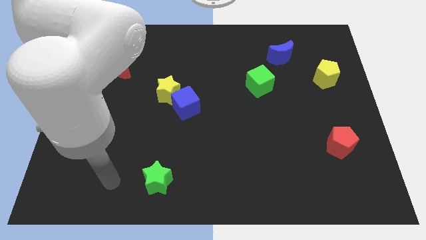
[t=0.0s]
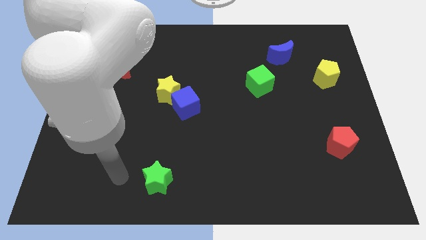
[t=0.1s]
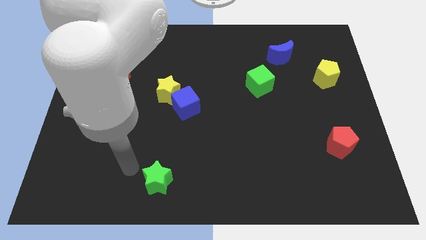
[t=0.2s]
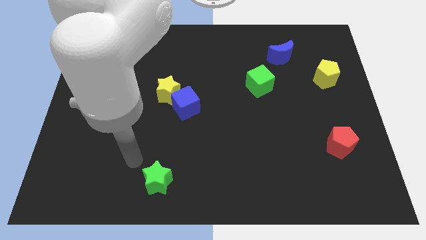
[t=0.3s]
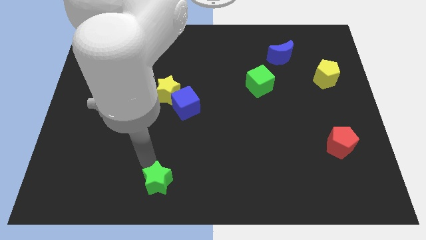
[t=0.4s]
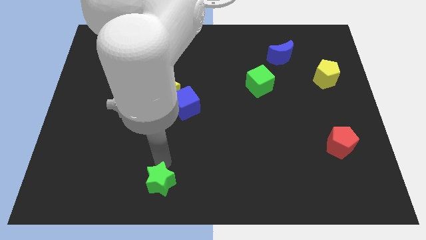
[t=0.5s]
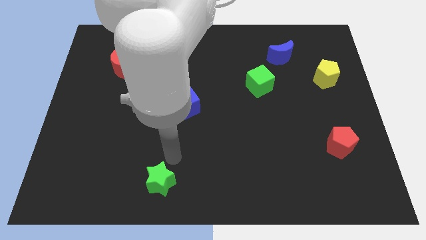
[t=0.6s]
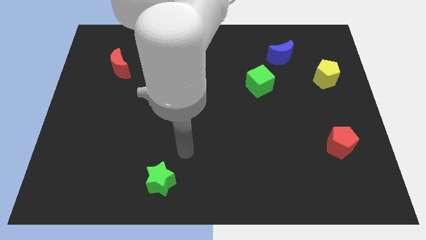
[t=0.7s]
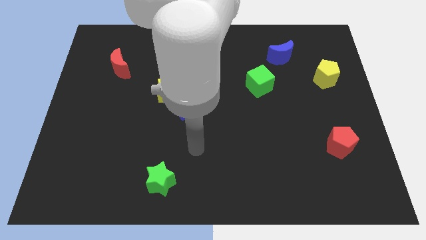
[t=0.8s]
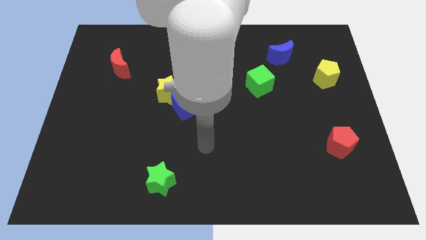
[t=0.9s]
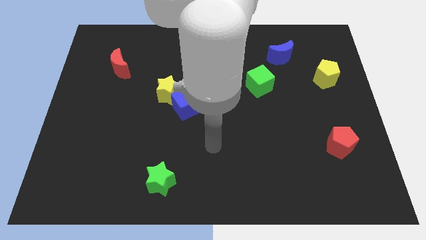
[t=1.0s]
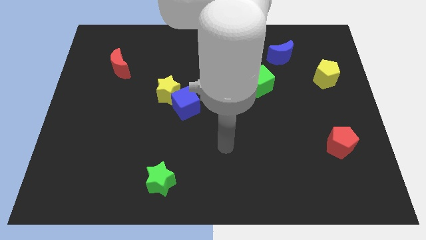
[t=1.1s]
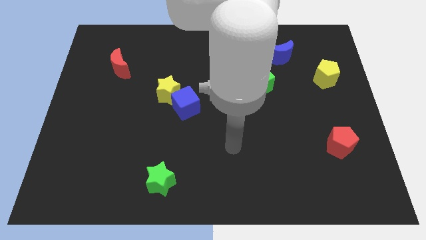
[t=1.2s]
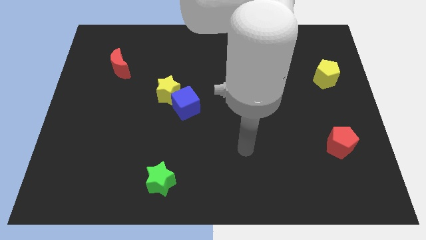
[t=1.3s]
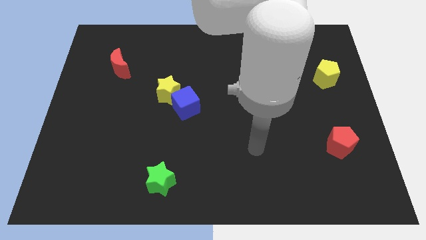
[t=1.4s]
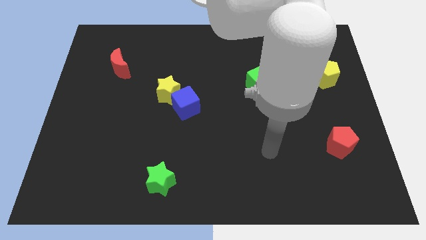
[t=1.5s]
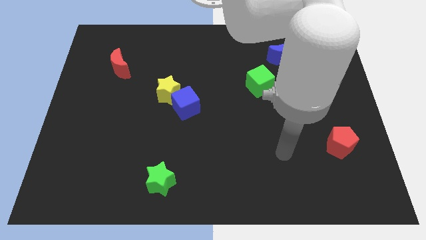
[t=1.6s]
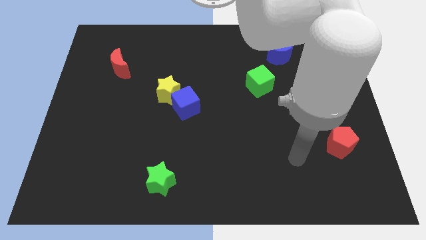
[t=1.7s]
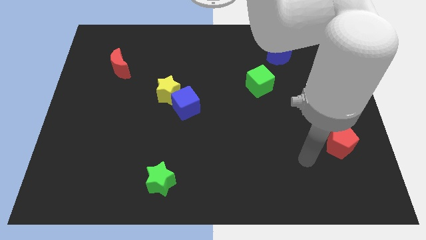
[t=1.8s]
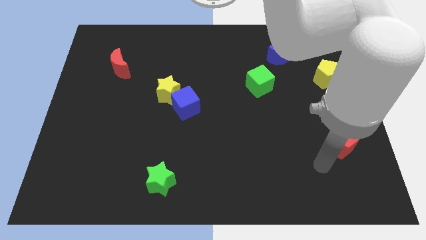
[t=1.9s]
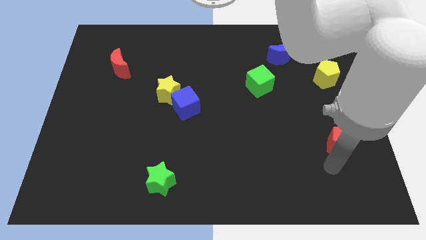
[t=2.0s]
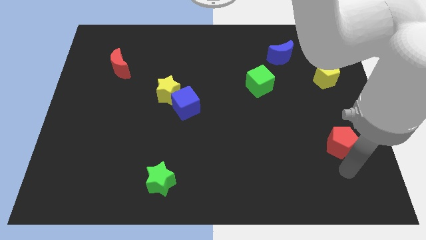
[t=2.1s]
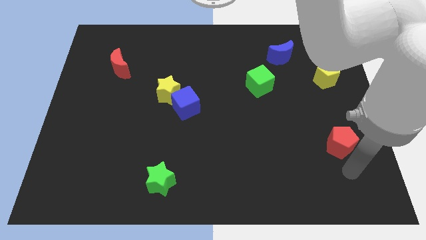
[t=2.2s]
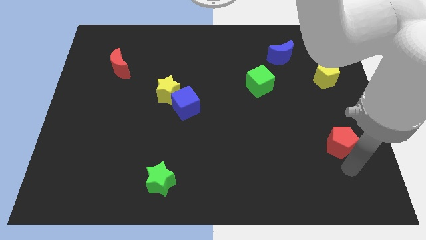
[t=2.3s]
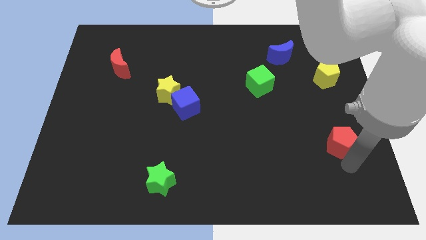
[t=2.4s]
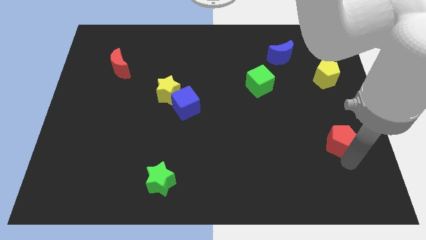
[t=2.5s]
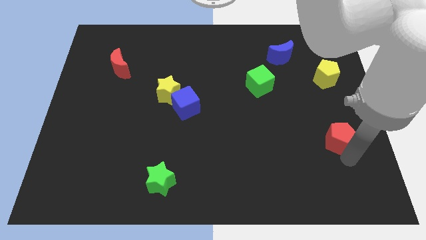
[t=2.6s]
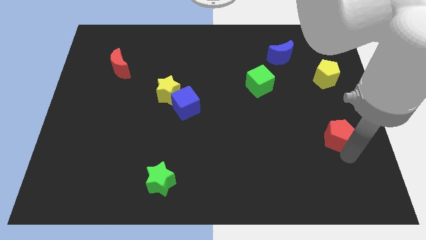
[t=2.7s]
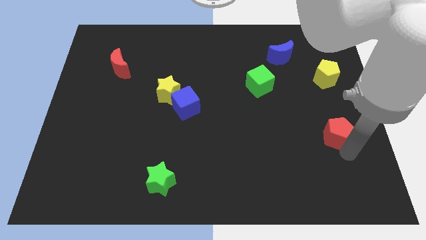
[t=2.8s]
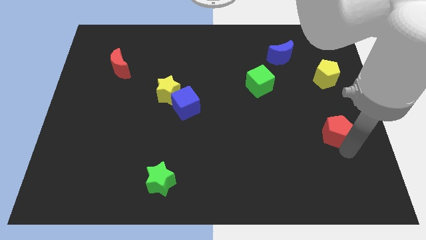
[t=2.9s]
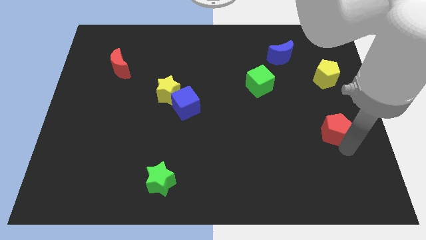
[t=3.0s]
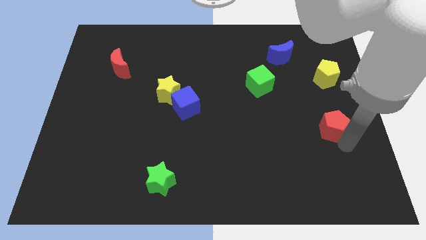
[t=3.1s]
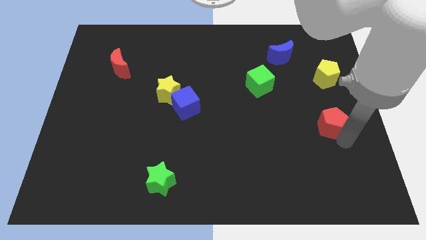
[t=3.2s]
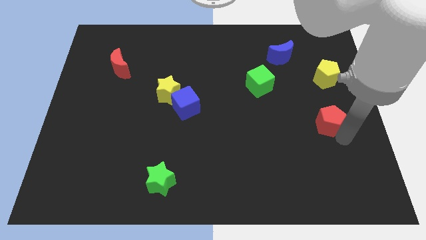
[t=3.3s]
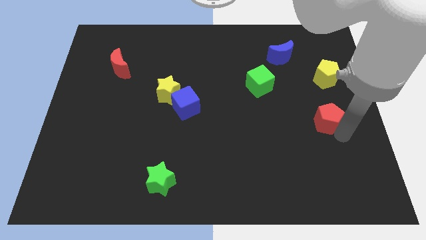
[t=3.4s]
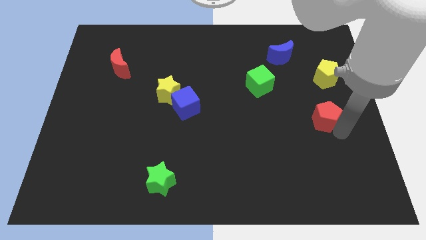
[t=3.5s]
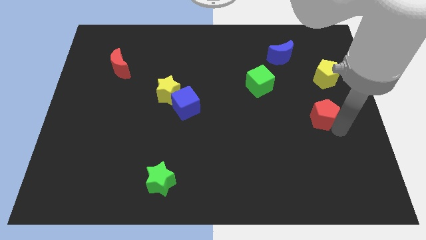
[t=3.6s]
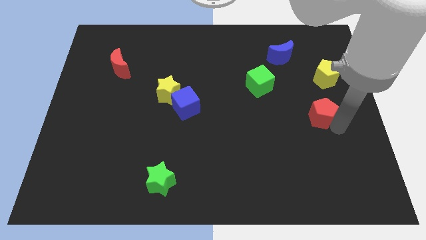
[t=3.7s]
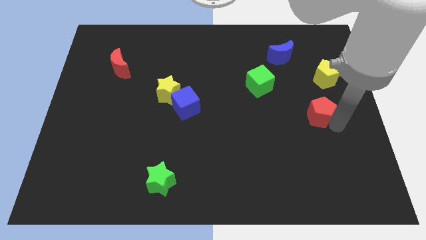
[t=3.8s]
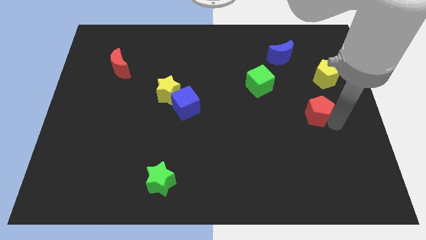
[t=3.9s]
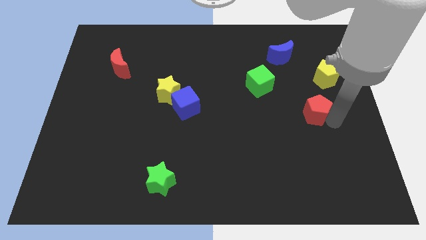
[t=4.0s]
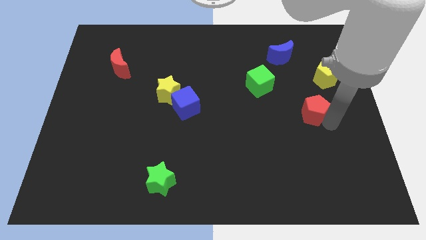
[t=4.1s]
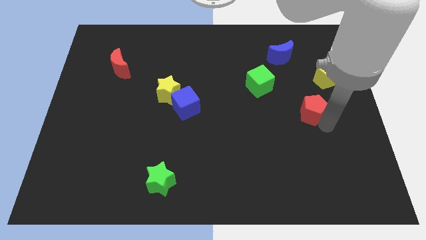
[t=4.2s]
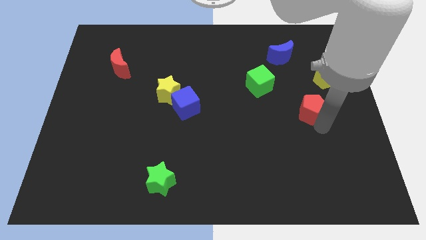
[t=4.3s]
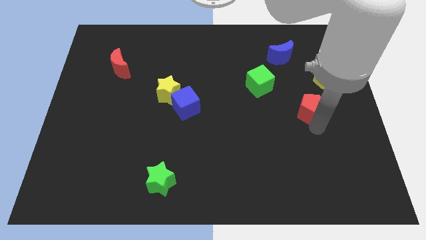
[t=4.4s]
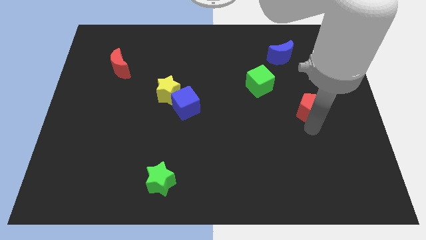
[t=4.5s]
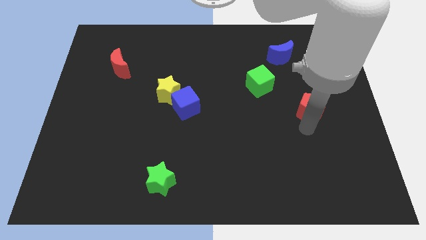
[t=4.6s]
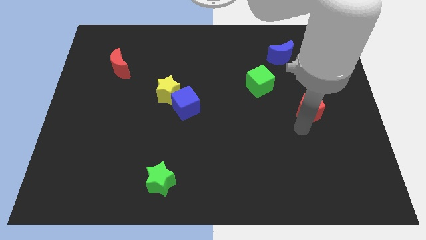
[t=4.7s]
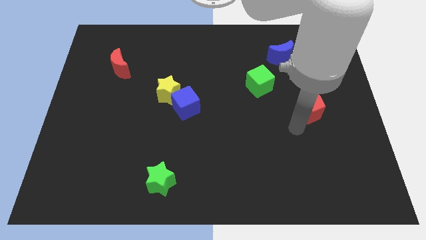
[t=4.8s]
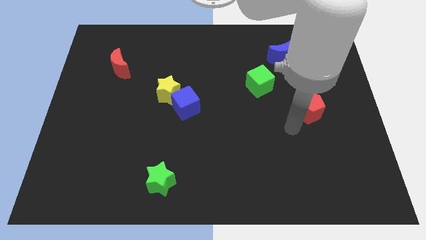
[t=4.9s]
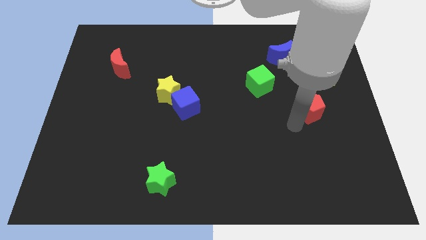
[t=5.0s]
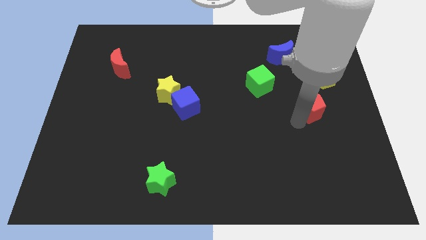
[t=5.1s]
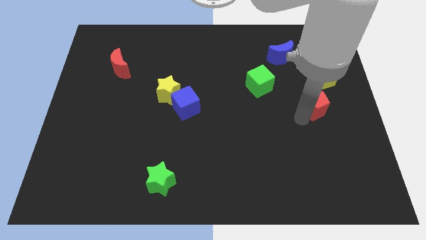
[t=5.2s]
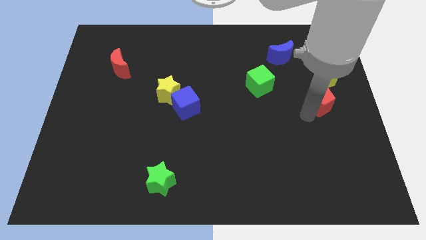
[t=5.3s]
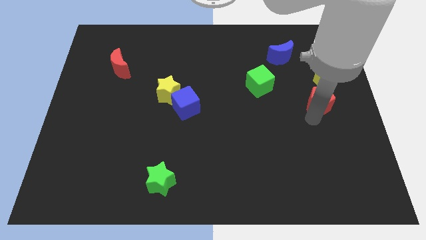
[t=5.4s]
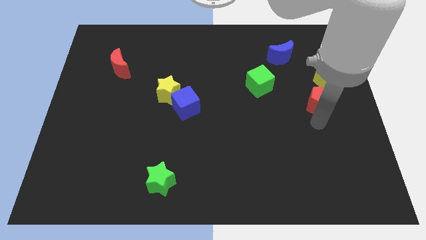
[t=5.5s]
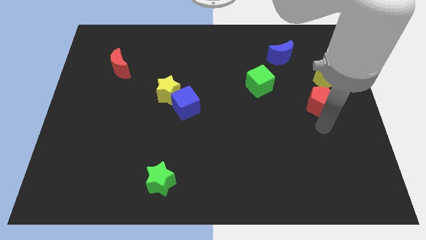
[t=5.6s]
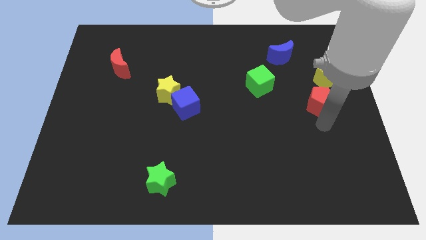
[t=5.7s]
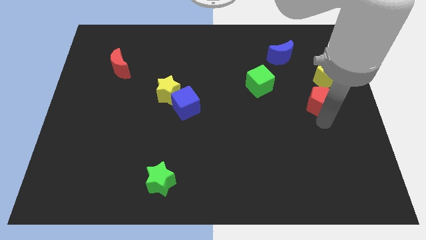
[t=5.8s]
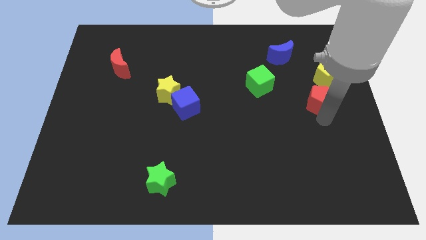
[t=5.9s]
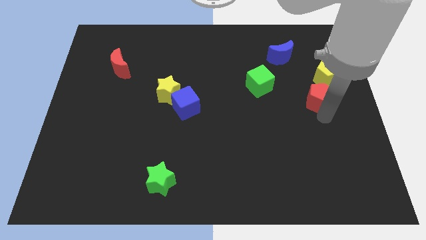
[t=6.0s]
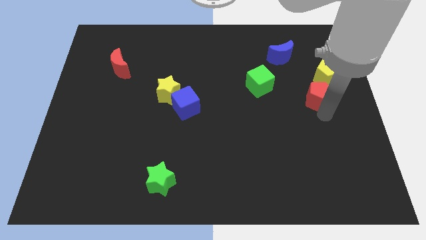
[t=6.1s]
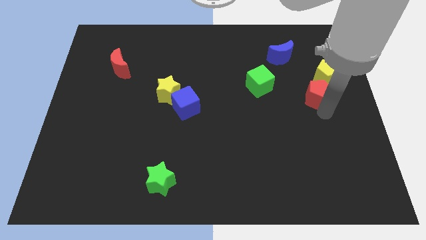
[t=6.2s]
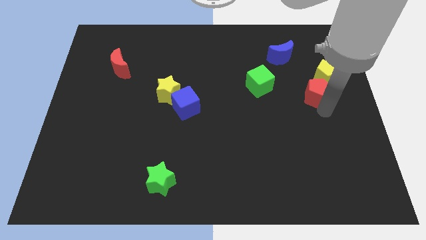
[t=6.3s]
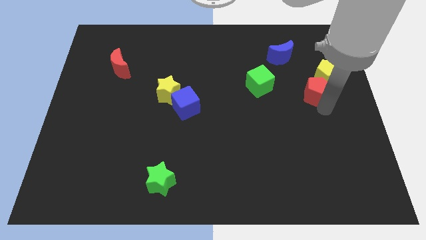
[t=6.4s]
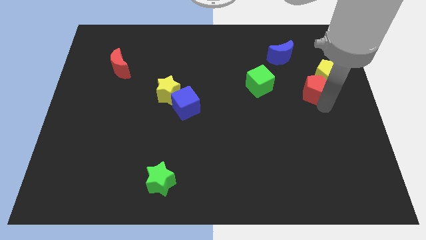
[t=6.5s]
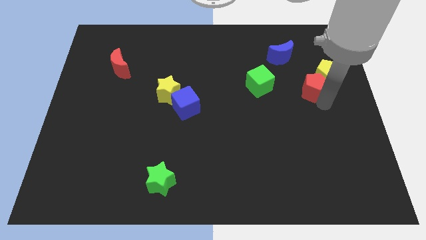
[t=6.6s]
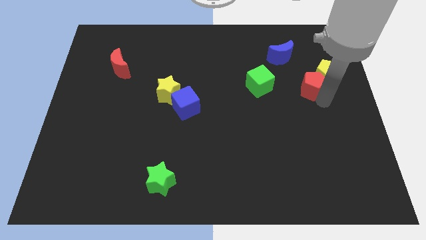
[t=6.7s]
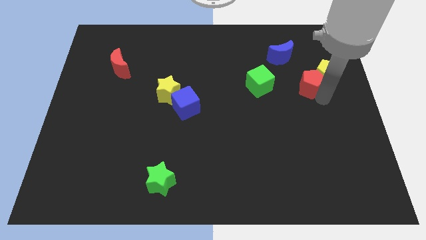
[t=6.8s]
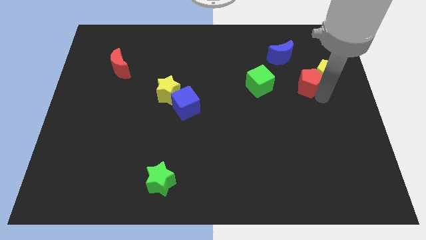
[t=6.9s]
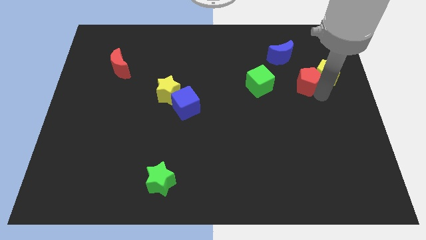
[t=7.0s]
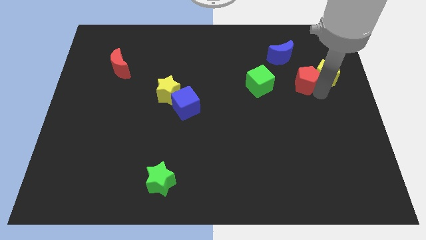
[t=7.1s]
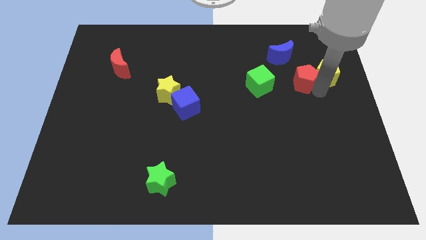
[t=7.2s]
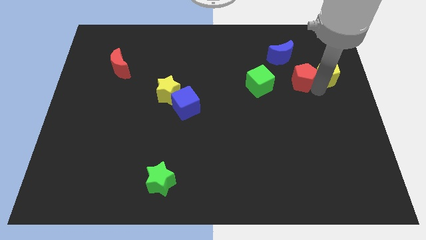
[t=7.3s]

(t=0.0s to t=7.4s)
slide the red pentagon diagonally up and to the left of the yellow pentagon
